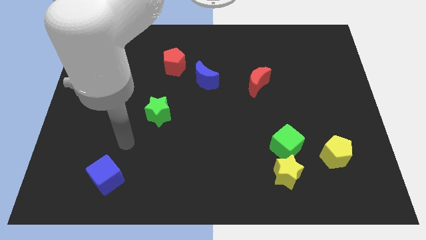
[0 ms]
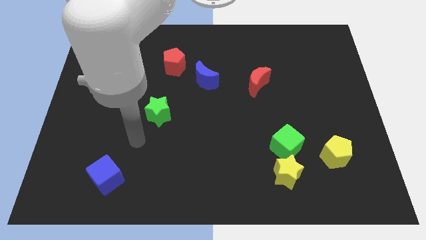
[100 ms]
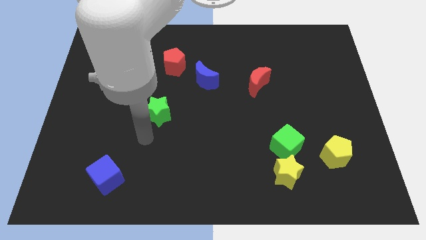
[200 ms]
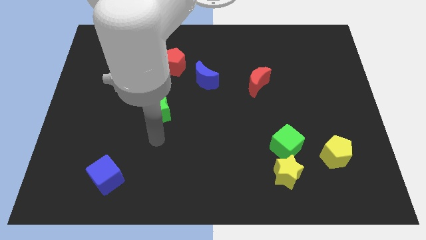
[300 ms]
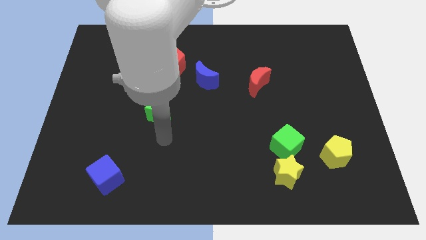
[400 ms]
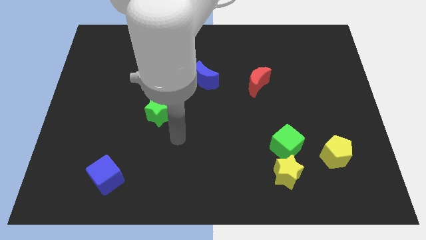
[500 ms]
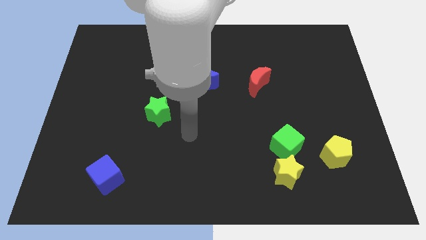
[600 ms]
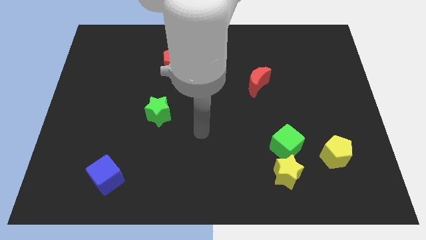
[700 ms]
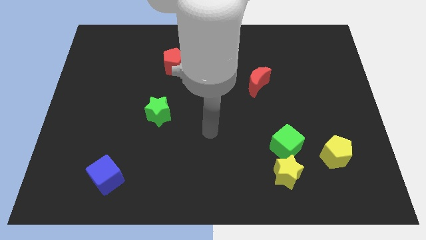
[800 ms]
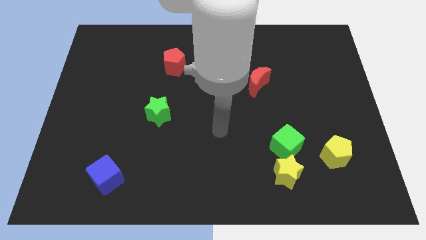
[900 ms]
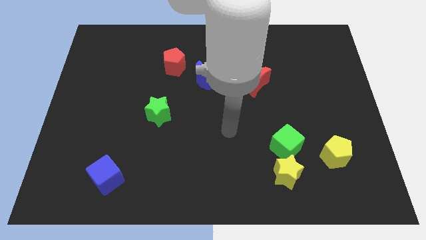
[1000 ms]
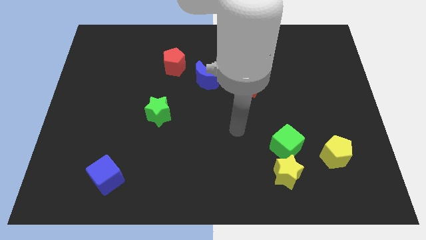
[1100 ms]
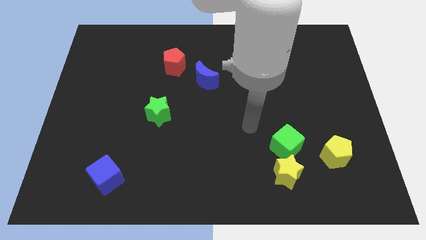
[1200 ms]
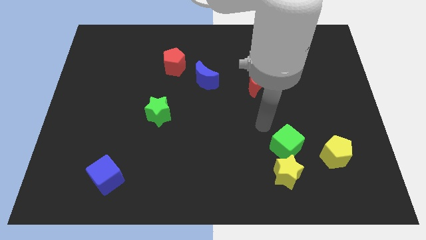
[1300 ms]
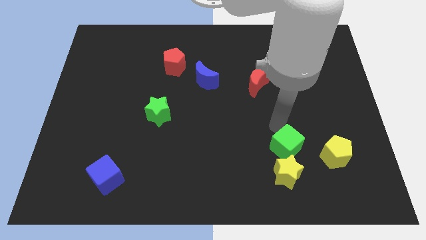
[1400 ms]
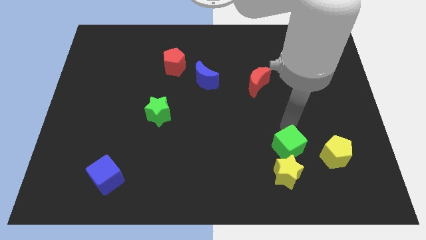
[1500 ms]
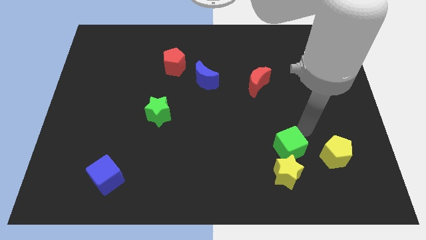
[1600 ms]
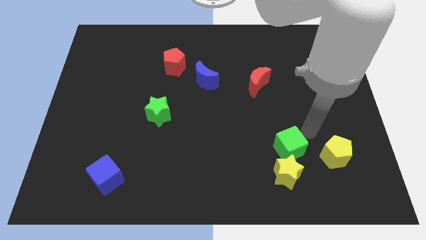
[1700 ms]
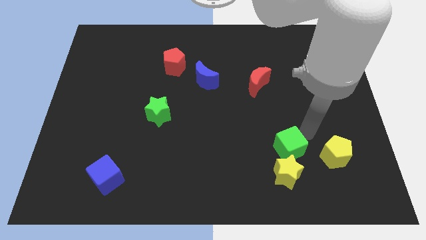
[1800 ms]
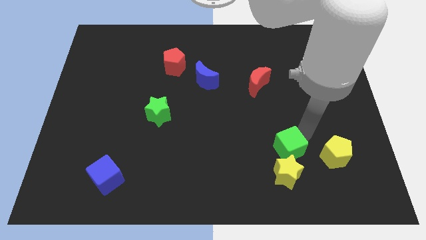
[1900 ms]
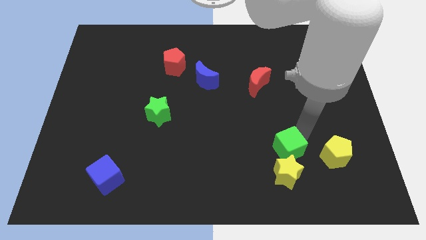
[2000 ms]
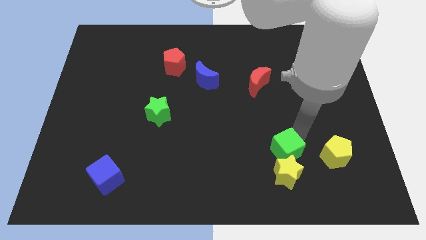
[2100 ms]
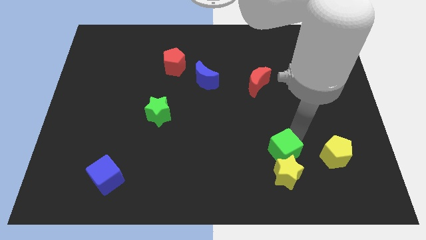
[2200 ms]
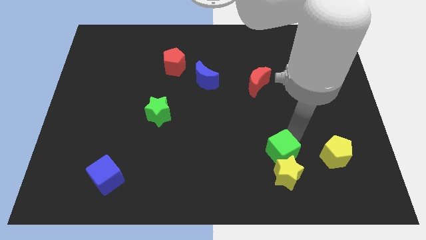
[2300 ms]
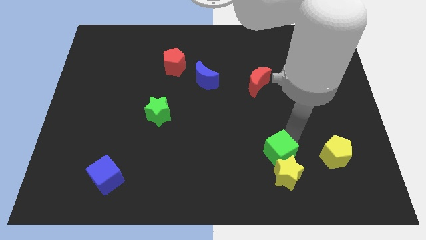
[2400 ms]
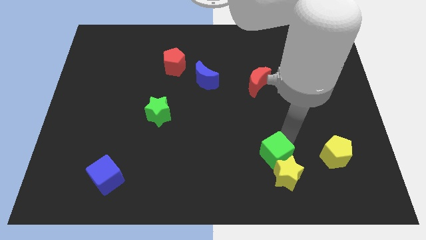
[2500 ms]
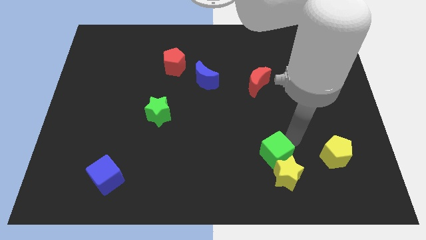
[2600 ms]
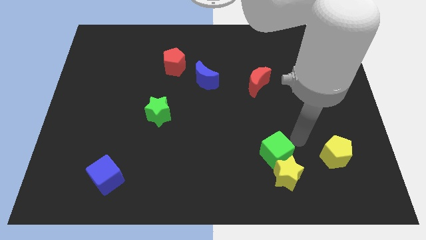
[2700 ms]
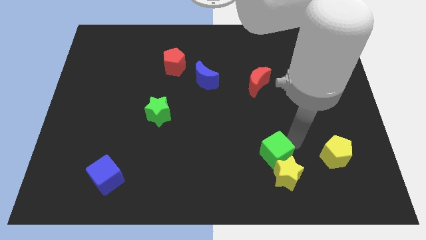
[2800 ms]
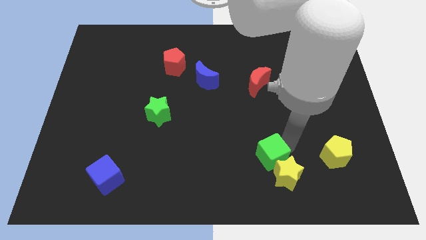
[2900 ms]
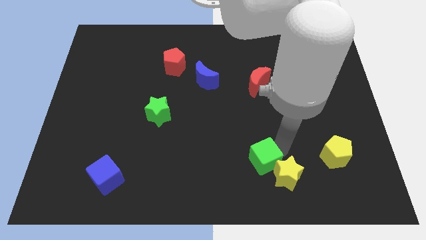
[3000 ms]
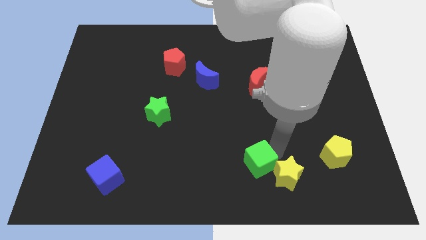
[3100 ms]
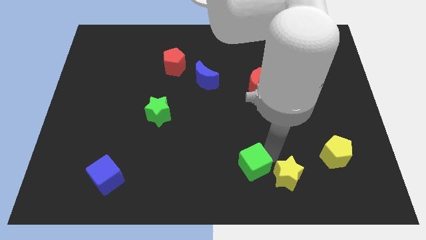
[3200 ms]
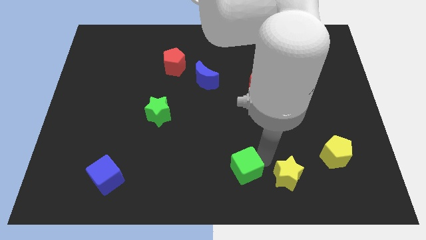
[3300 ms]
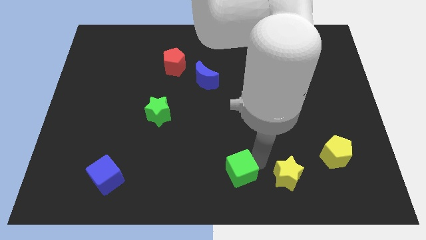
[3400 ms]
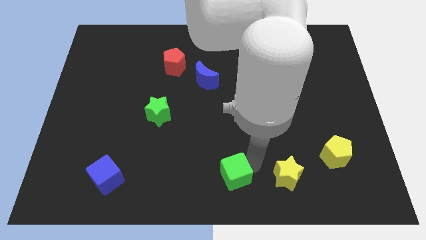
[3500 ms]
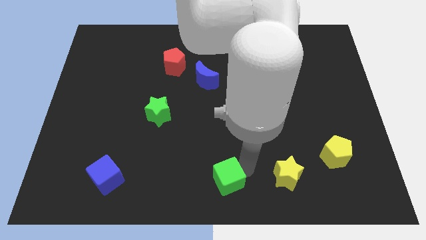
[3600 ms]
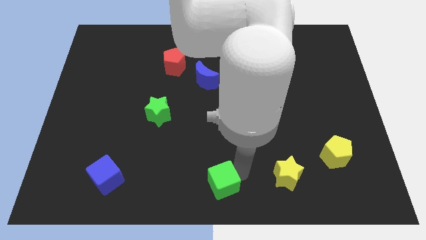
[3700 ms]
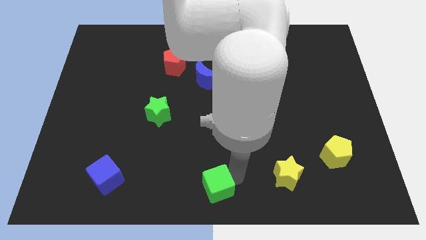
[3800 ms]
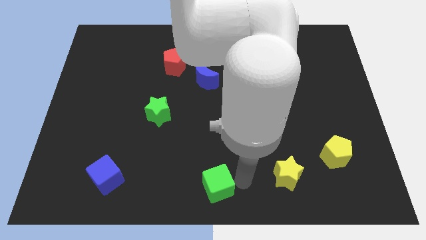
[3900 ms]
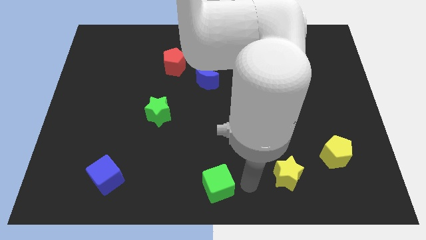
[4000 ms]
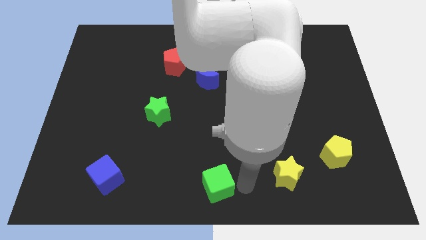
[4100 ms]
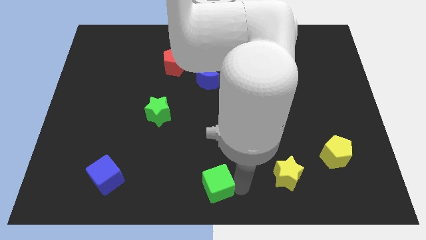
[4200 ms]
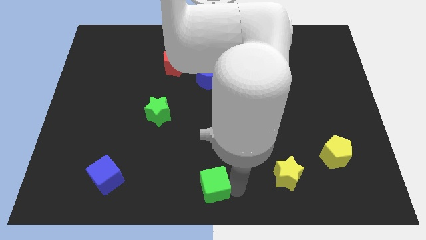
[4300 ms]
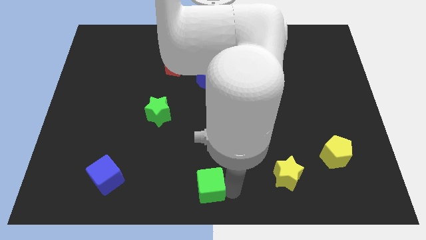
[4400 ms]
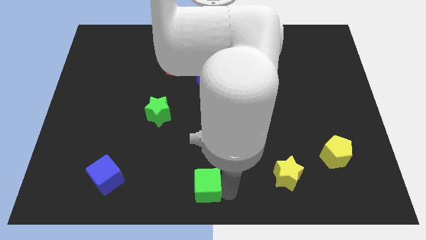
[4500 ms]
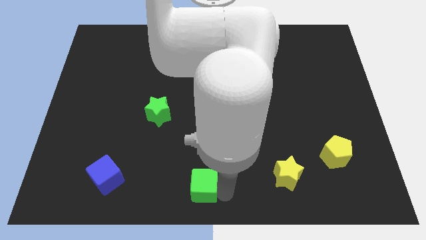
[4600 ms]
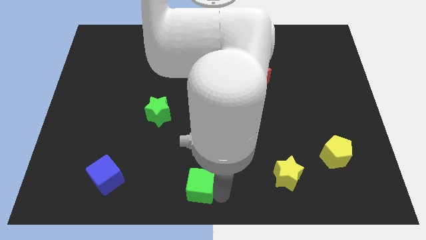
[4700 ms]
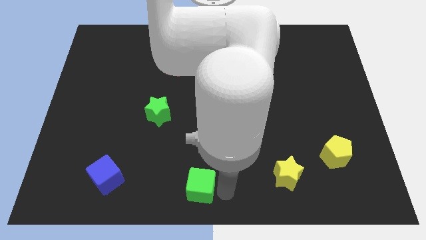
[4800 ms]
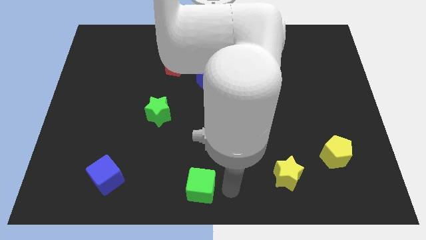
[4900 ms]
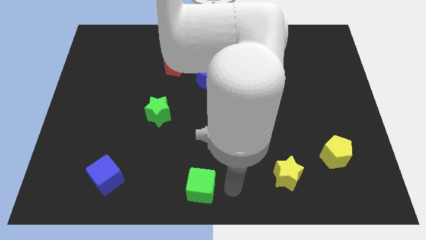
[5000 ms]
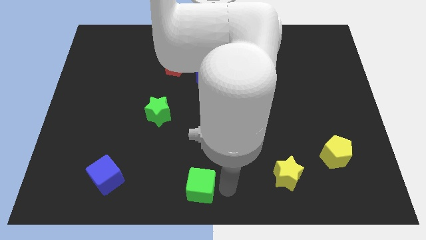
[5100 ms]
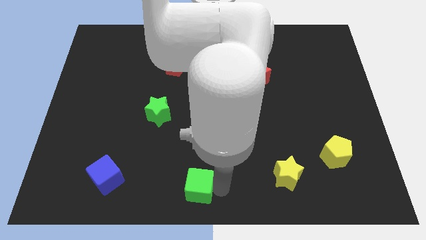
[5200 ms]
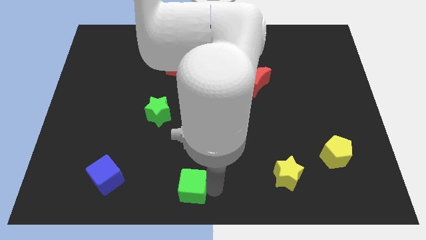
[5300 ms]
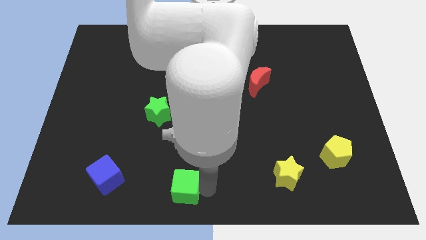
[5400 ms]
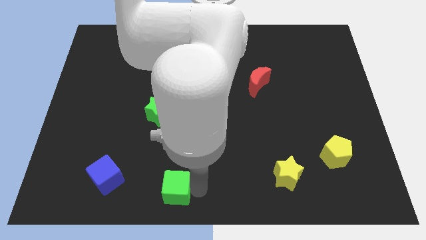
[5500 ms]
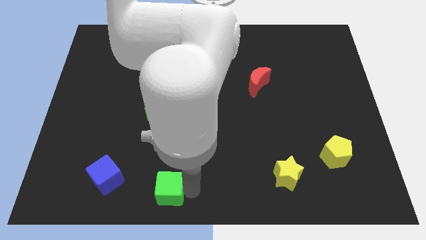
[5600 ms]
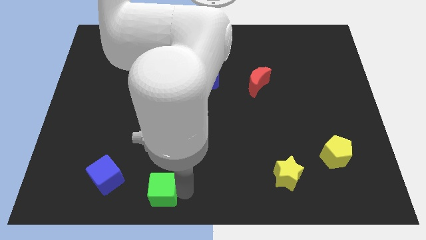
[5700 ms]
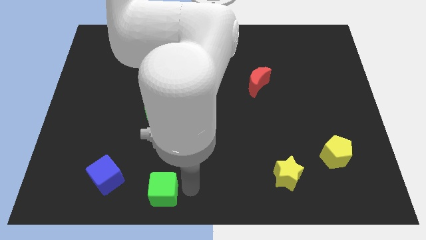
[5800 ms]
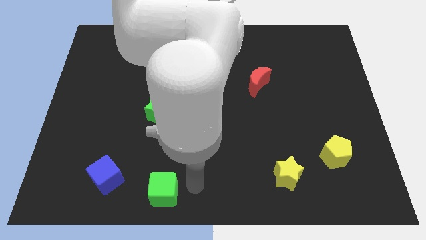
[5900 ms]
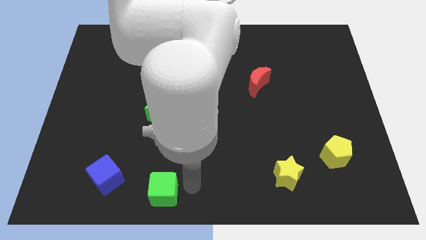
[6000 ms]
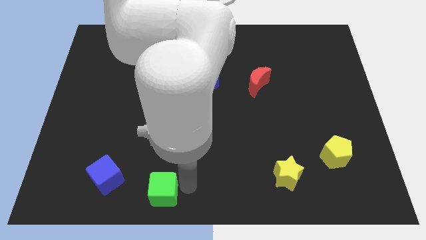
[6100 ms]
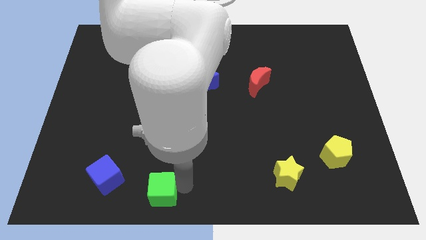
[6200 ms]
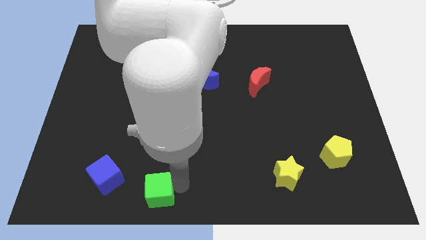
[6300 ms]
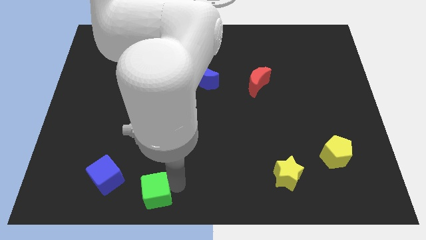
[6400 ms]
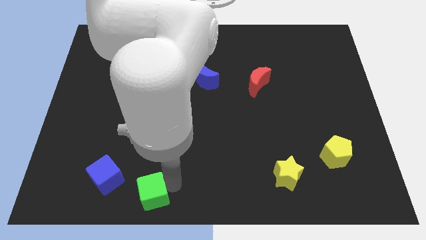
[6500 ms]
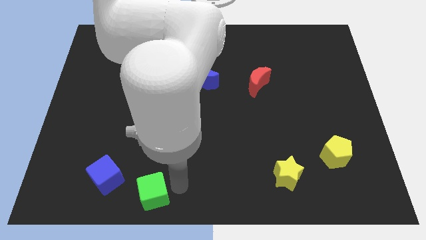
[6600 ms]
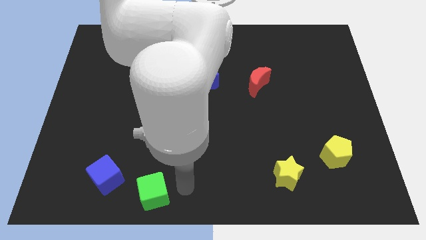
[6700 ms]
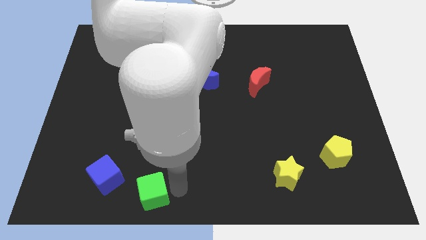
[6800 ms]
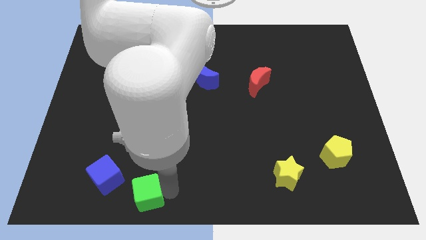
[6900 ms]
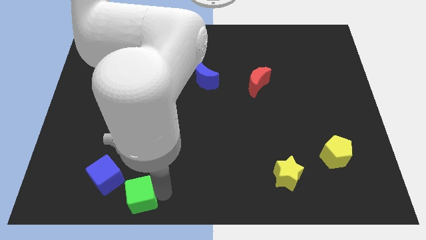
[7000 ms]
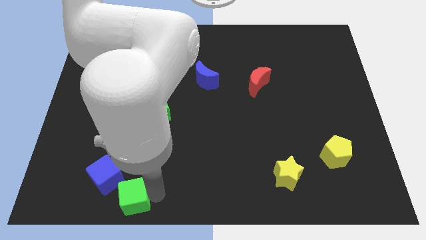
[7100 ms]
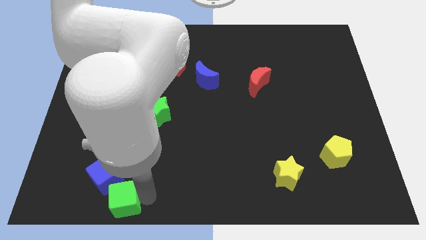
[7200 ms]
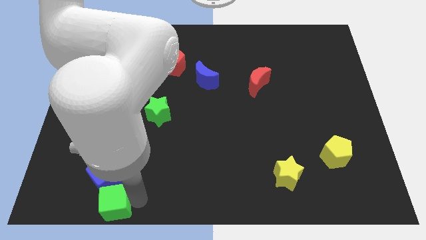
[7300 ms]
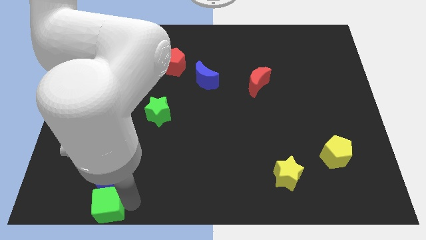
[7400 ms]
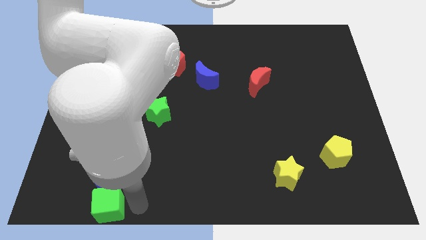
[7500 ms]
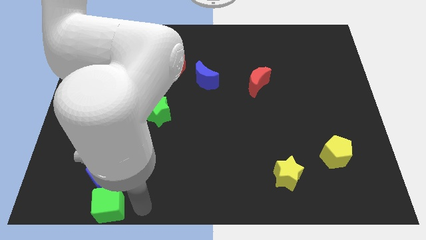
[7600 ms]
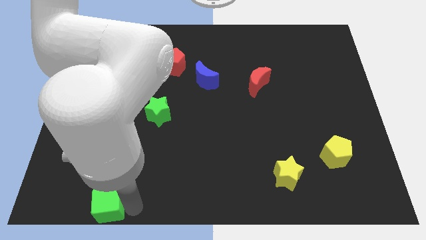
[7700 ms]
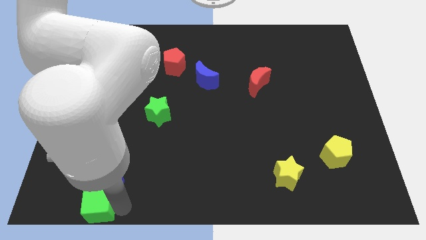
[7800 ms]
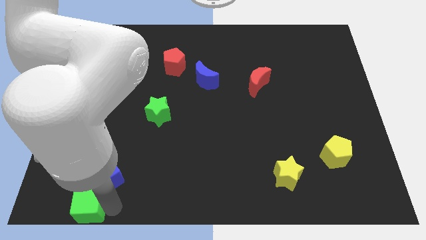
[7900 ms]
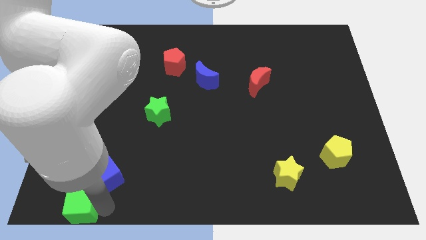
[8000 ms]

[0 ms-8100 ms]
slide the green cube to the bottom left corner
